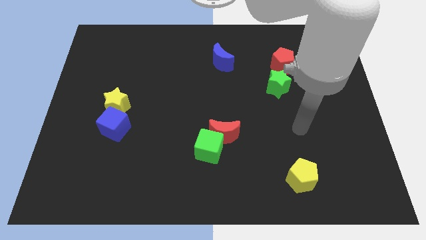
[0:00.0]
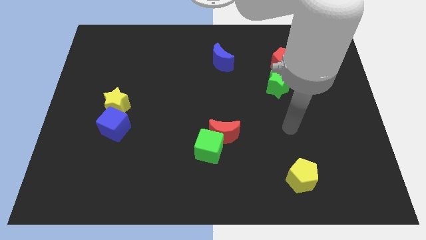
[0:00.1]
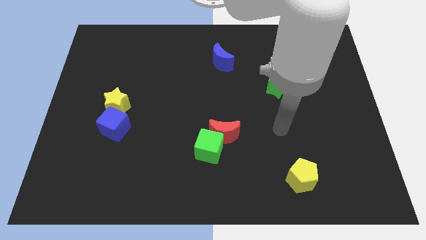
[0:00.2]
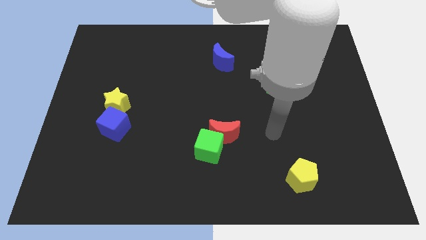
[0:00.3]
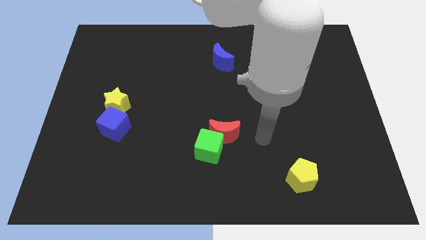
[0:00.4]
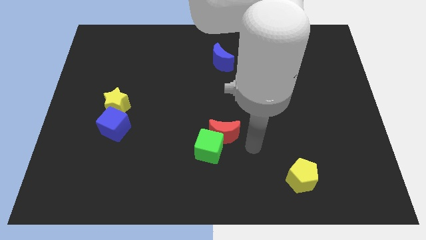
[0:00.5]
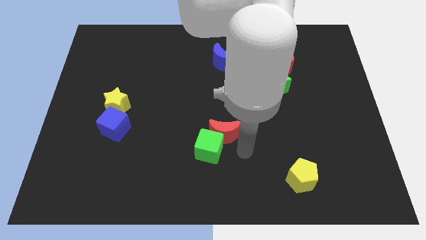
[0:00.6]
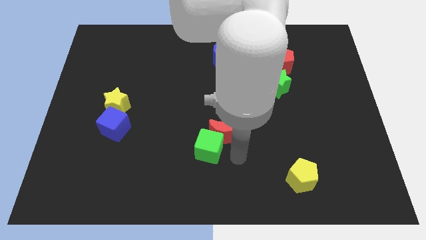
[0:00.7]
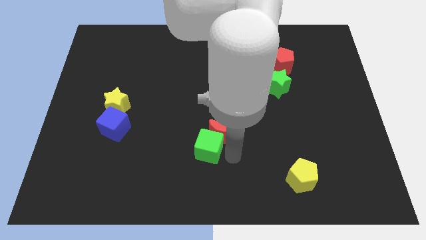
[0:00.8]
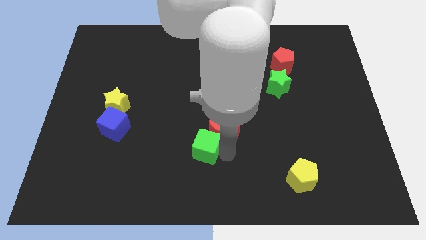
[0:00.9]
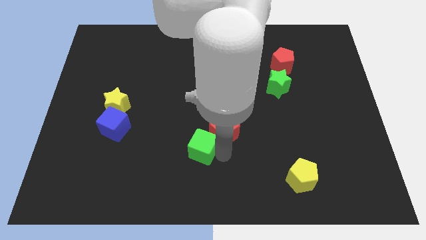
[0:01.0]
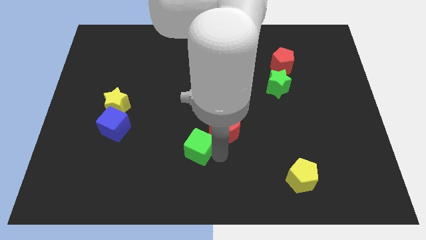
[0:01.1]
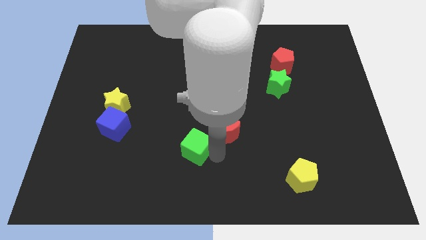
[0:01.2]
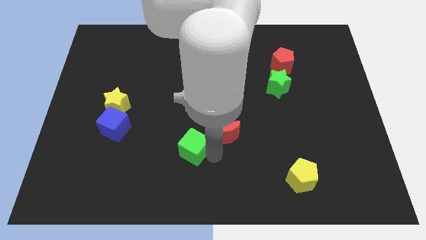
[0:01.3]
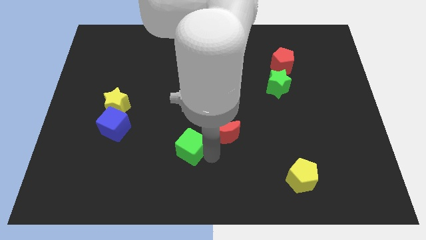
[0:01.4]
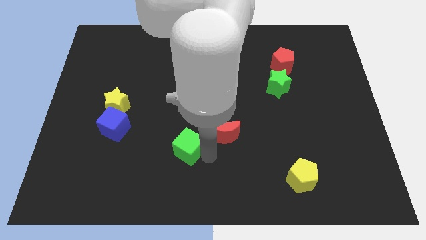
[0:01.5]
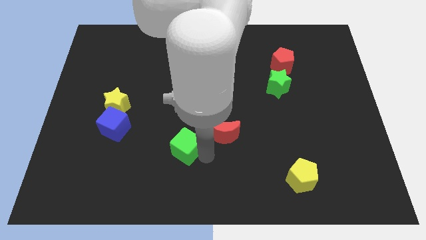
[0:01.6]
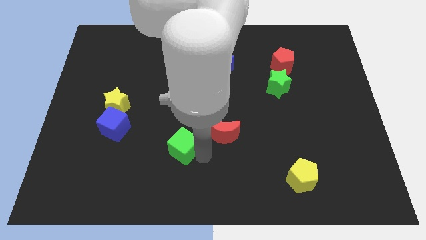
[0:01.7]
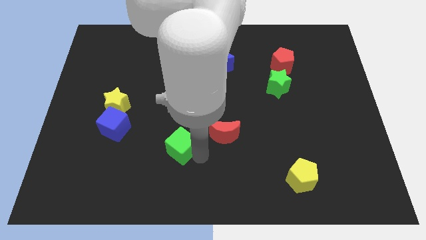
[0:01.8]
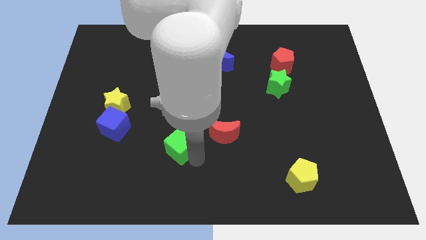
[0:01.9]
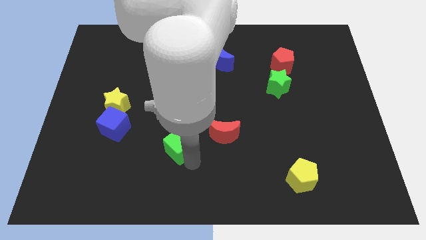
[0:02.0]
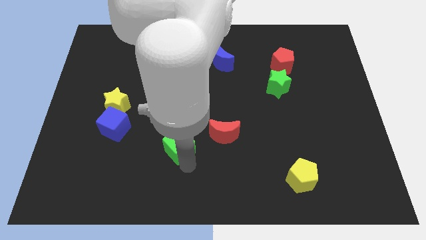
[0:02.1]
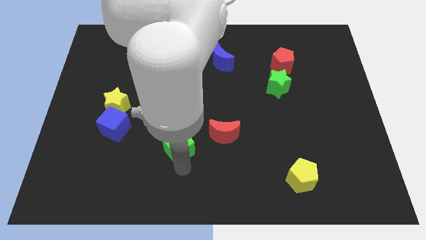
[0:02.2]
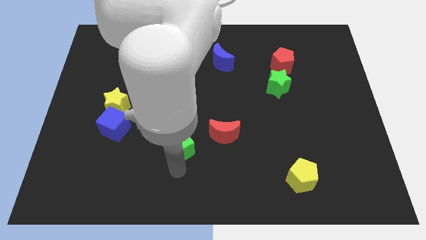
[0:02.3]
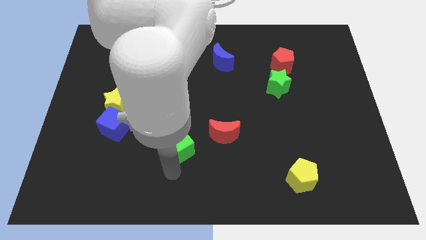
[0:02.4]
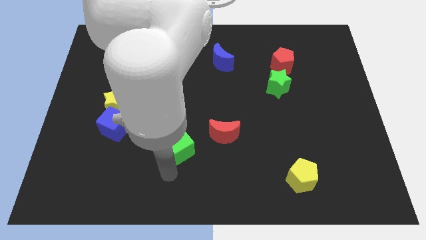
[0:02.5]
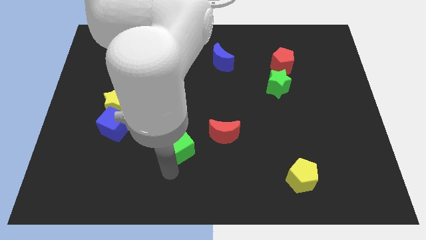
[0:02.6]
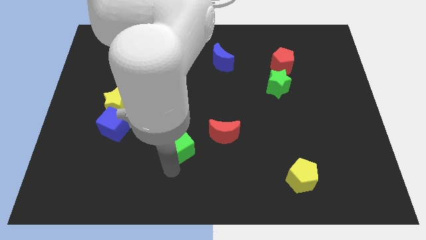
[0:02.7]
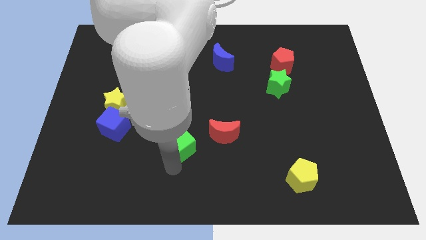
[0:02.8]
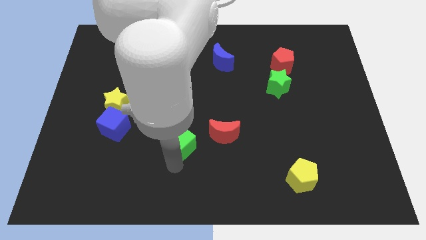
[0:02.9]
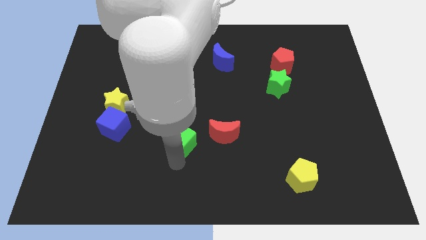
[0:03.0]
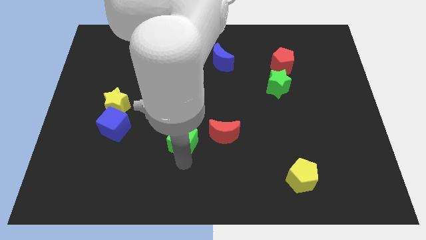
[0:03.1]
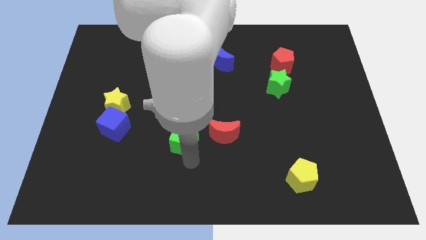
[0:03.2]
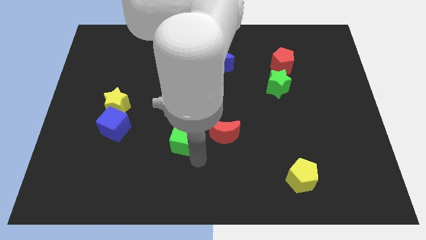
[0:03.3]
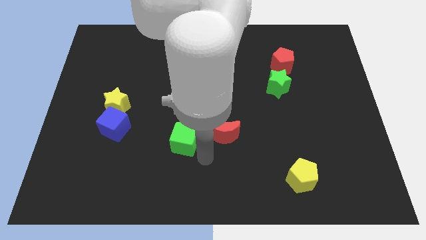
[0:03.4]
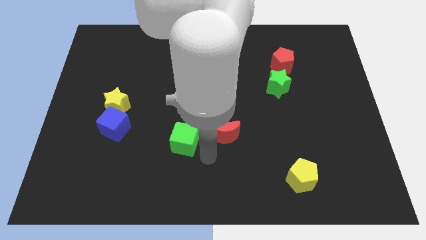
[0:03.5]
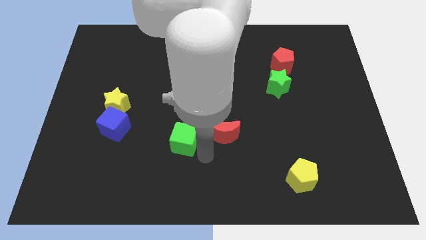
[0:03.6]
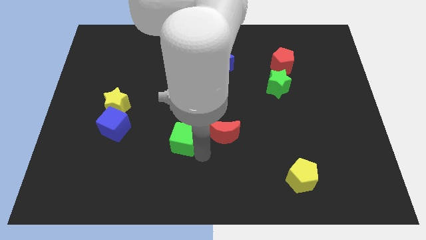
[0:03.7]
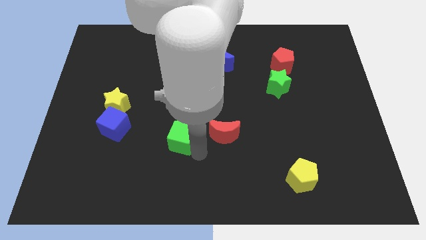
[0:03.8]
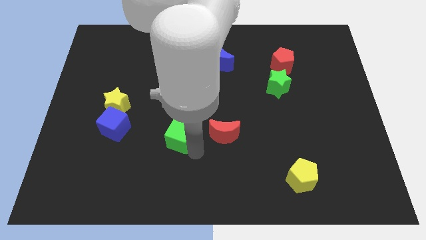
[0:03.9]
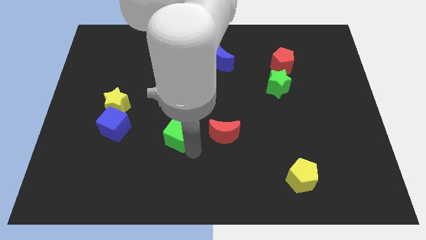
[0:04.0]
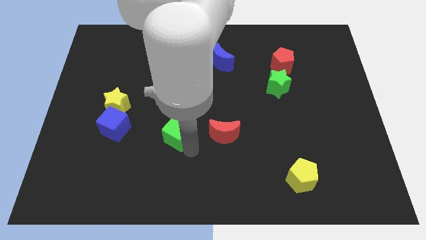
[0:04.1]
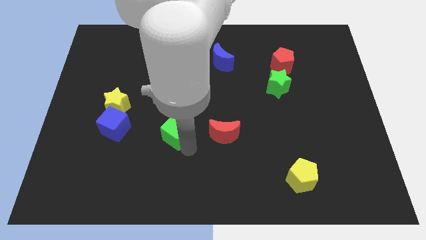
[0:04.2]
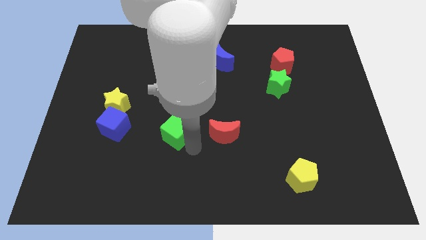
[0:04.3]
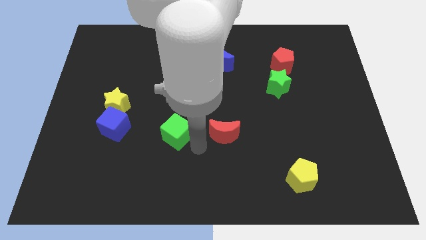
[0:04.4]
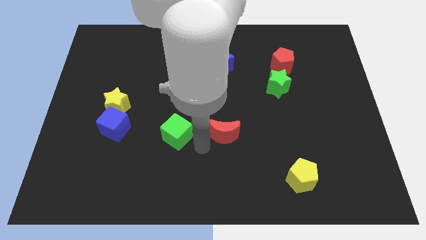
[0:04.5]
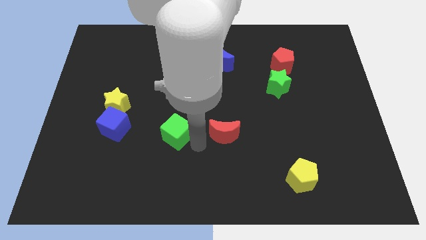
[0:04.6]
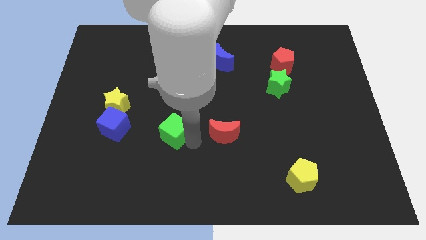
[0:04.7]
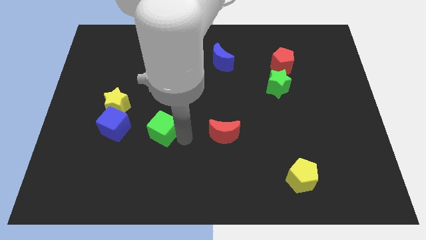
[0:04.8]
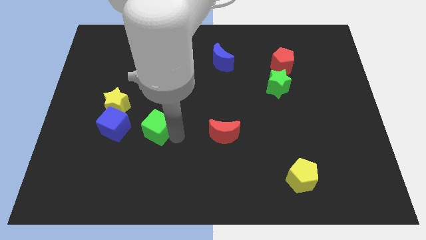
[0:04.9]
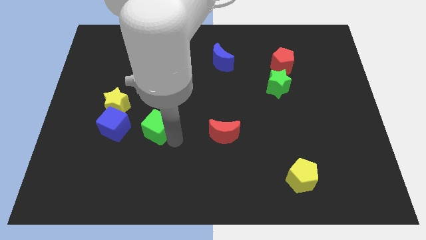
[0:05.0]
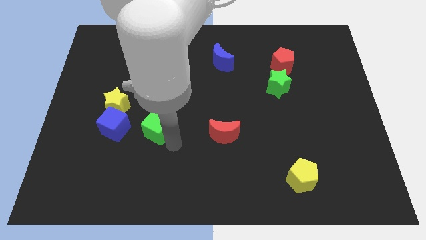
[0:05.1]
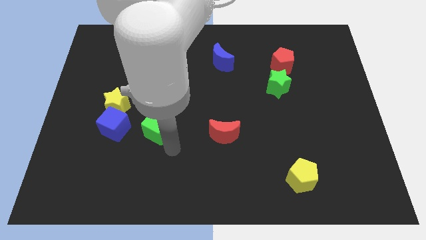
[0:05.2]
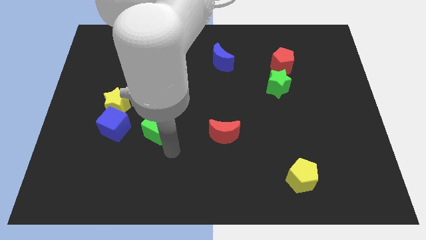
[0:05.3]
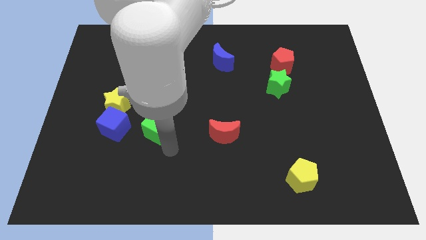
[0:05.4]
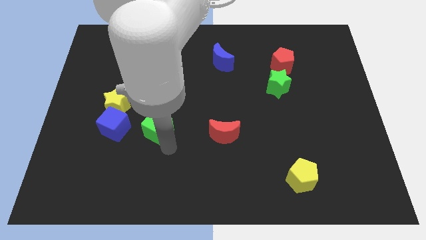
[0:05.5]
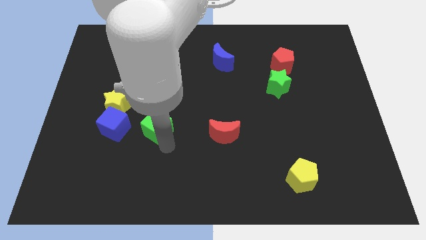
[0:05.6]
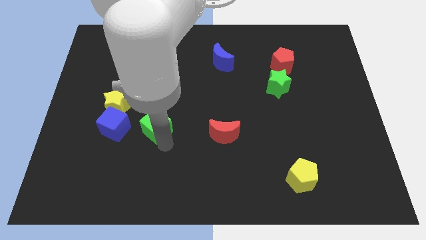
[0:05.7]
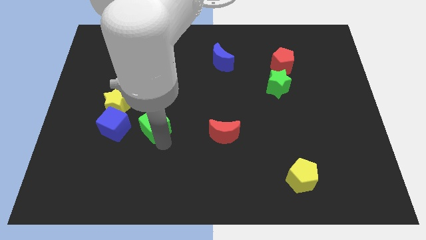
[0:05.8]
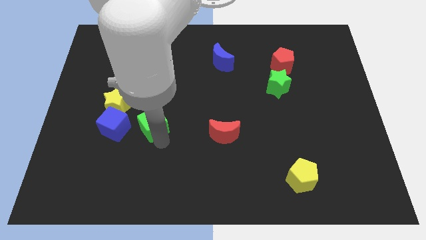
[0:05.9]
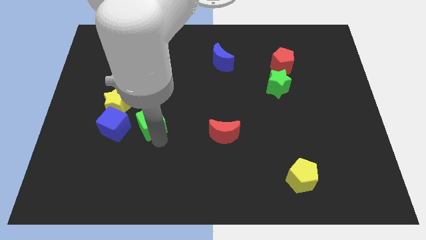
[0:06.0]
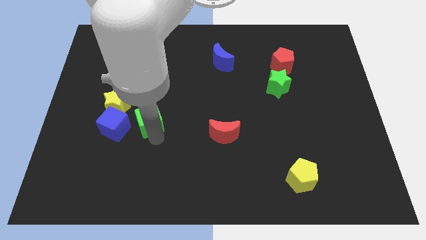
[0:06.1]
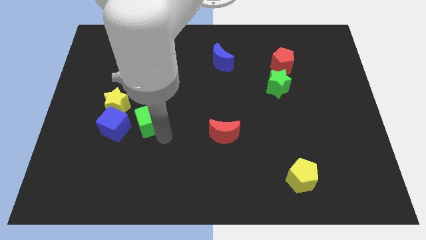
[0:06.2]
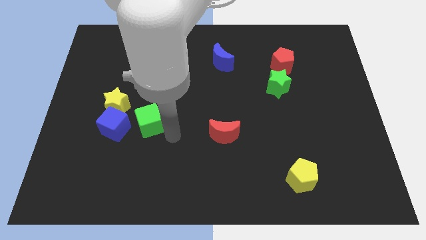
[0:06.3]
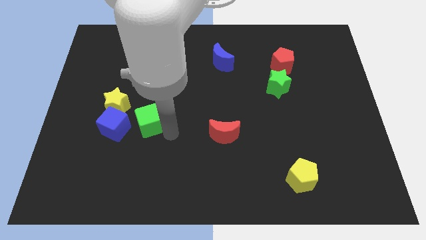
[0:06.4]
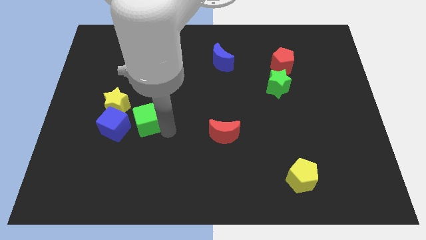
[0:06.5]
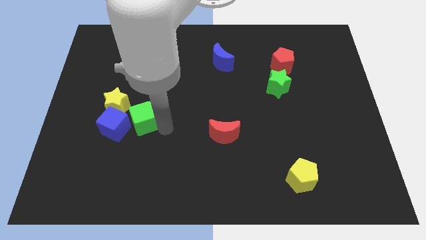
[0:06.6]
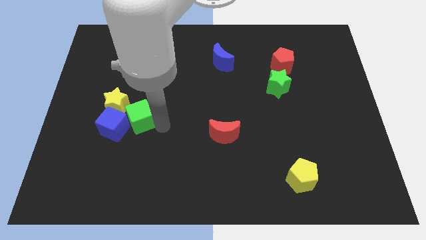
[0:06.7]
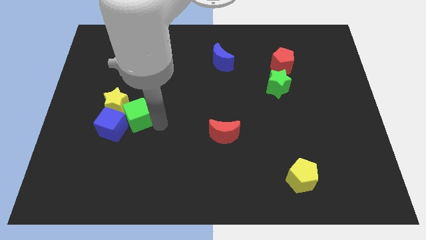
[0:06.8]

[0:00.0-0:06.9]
put the green cube towards the yellow star
